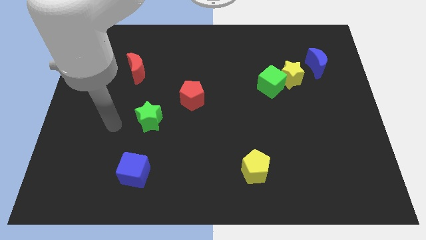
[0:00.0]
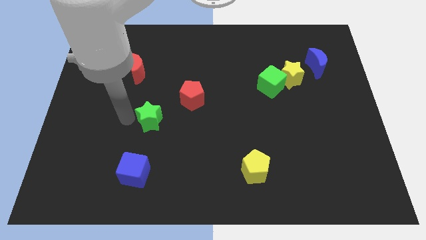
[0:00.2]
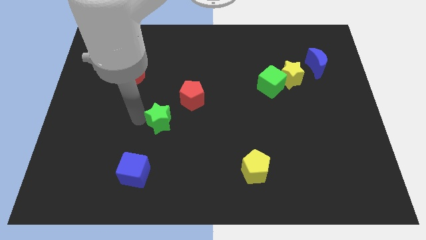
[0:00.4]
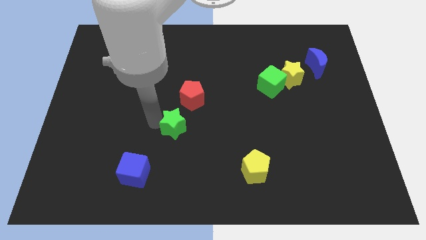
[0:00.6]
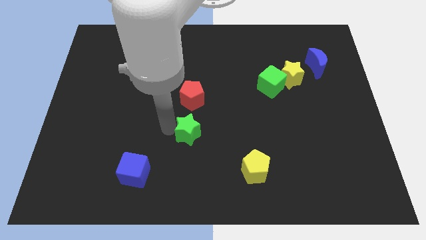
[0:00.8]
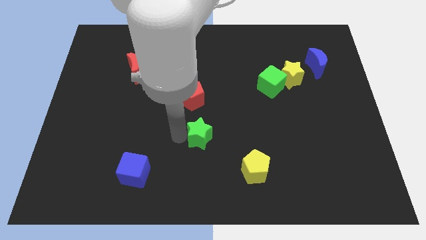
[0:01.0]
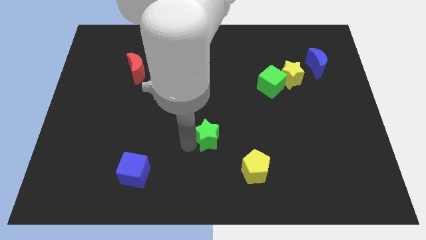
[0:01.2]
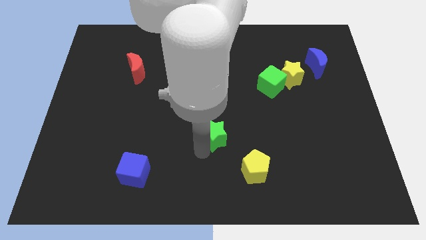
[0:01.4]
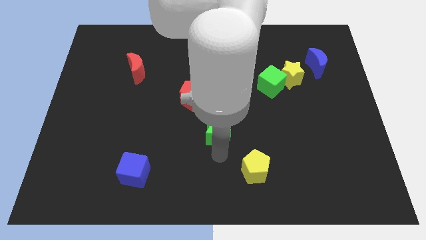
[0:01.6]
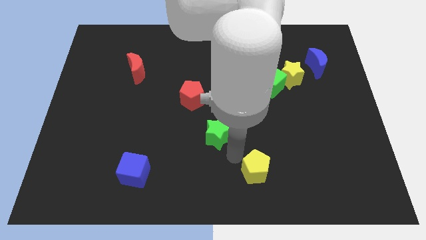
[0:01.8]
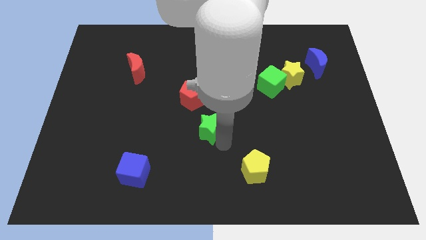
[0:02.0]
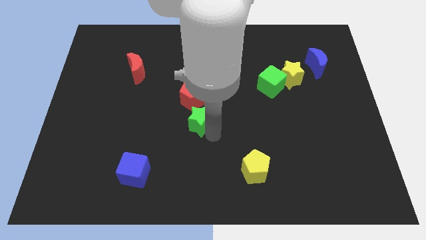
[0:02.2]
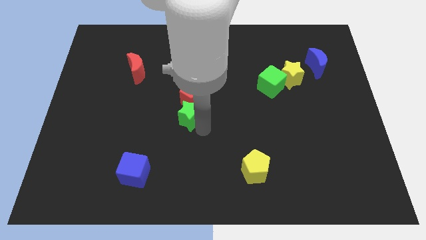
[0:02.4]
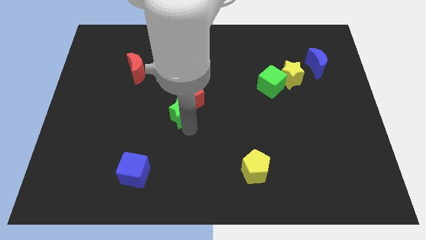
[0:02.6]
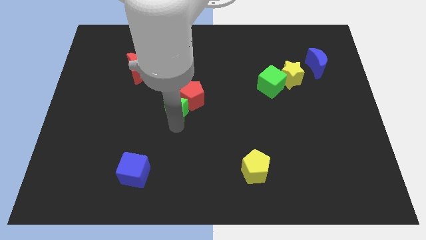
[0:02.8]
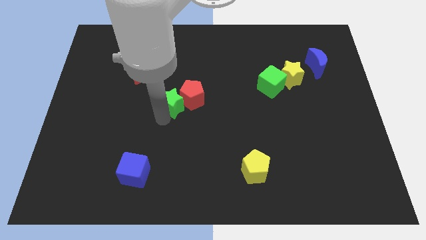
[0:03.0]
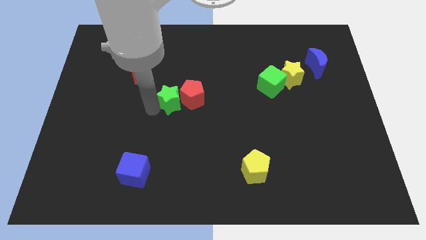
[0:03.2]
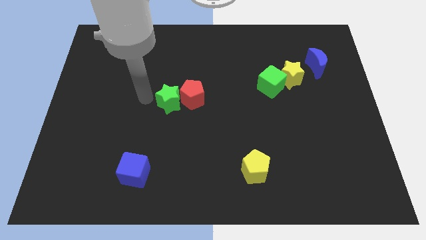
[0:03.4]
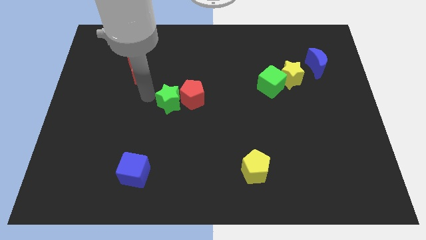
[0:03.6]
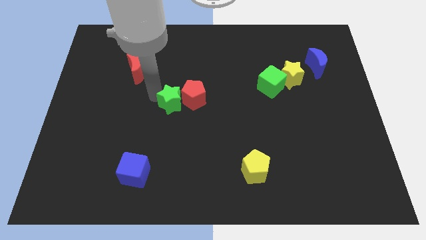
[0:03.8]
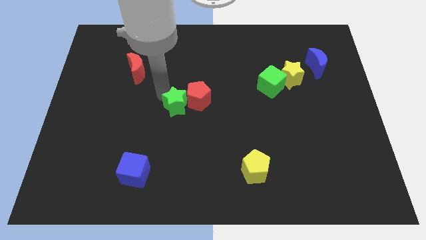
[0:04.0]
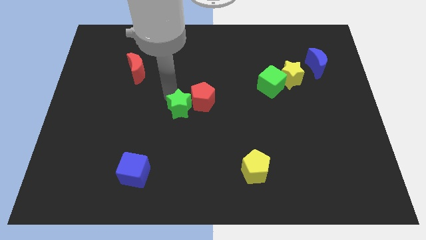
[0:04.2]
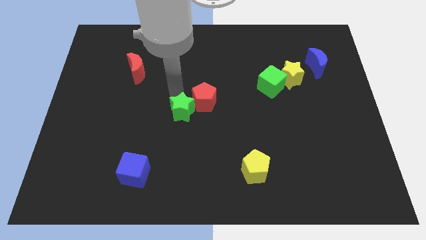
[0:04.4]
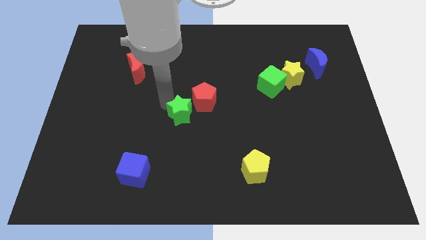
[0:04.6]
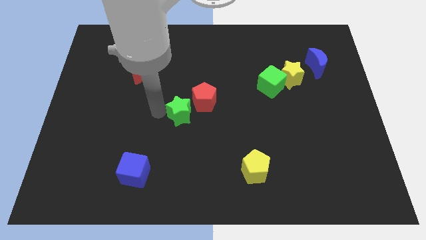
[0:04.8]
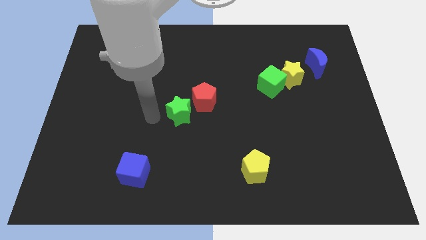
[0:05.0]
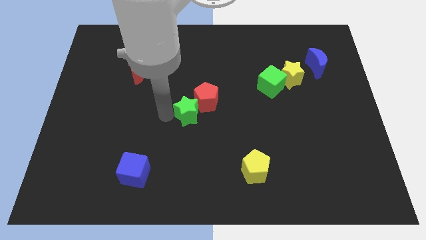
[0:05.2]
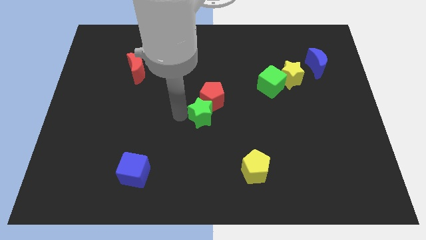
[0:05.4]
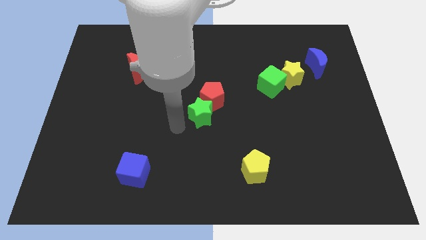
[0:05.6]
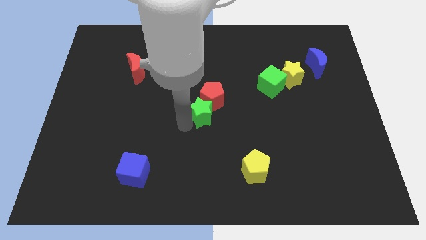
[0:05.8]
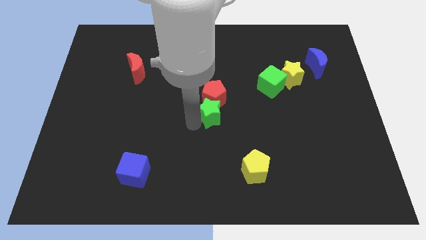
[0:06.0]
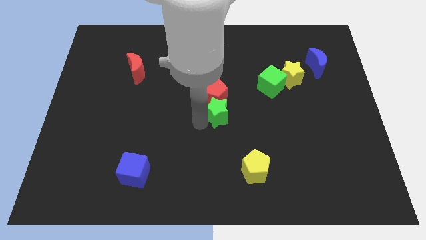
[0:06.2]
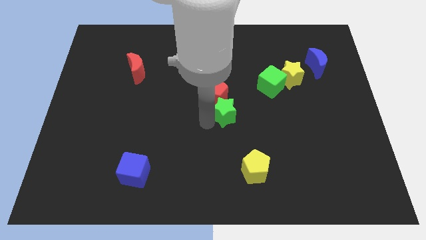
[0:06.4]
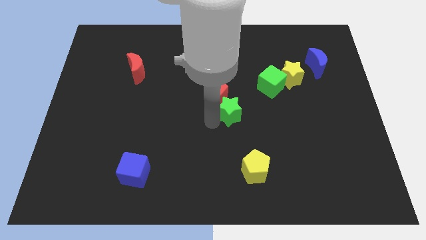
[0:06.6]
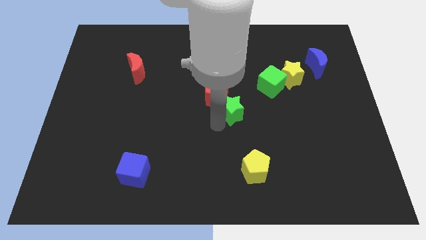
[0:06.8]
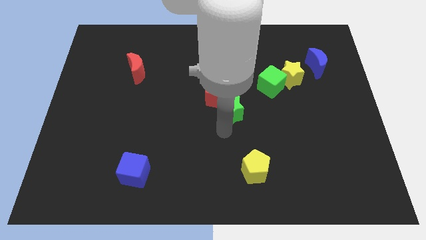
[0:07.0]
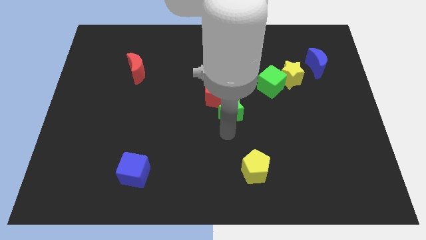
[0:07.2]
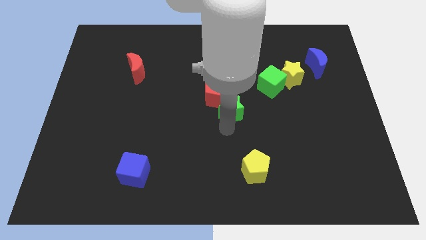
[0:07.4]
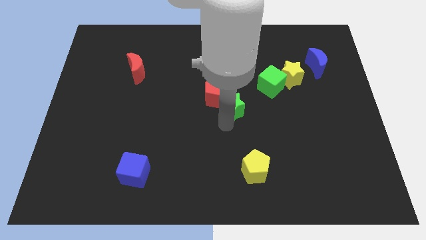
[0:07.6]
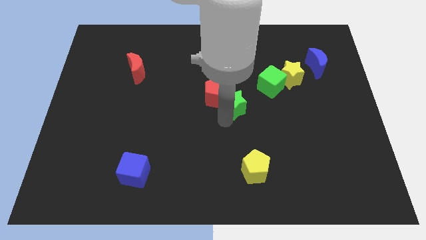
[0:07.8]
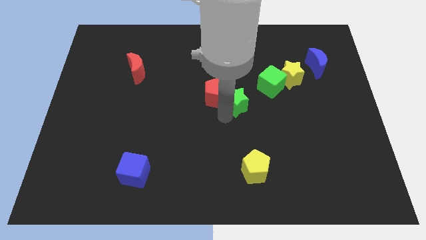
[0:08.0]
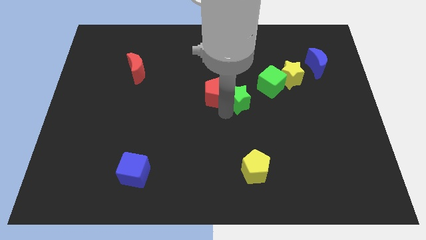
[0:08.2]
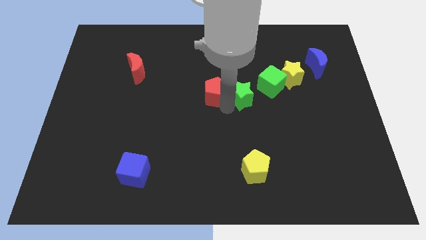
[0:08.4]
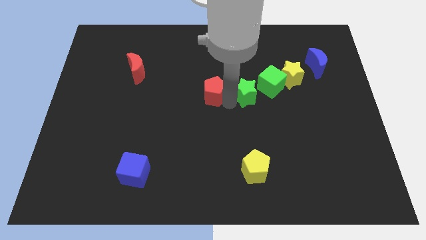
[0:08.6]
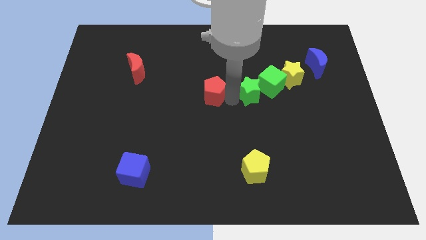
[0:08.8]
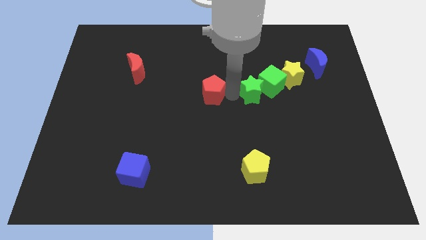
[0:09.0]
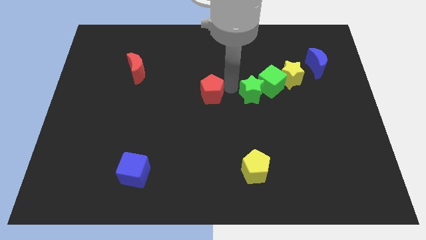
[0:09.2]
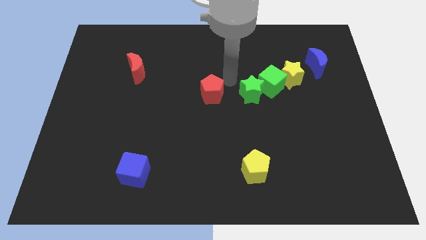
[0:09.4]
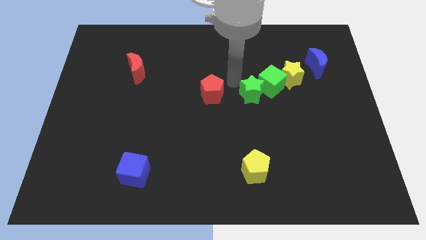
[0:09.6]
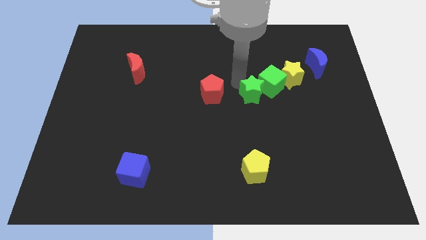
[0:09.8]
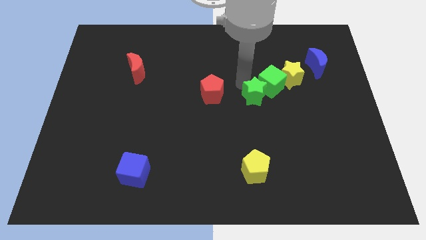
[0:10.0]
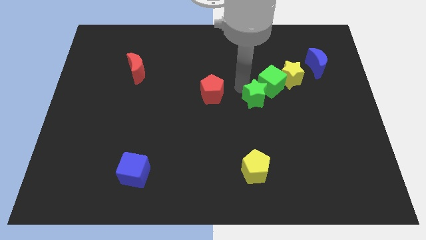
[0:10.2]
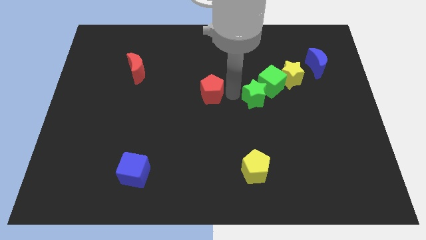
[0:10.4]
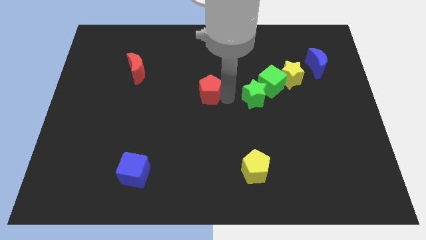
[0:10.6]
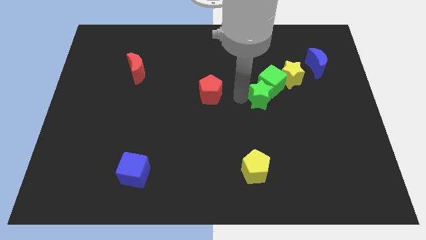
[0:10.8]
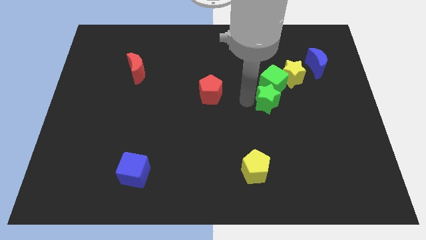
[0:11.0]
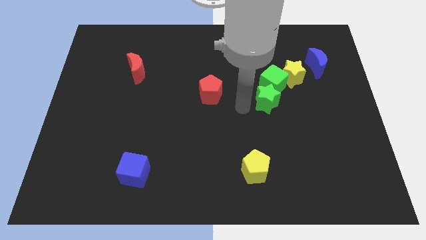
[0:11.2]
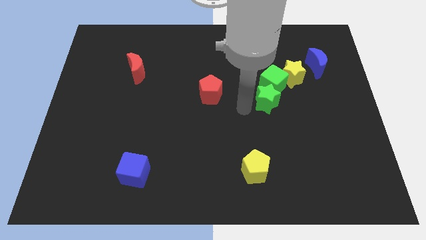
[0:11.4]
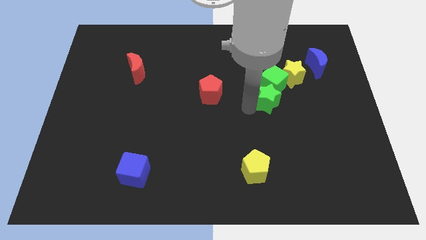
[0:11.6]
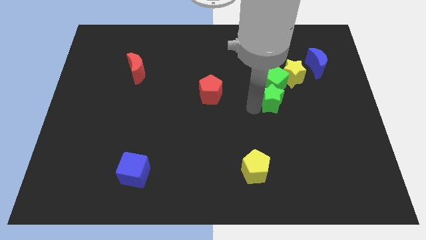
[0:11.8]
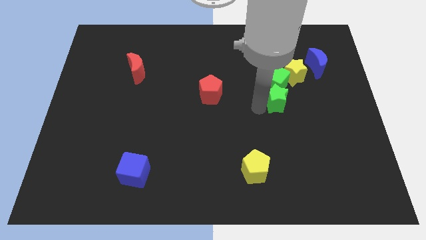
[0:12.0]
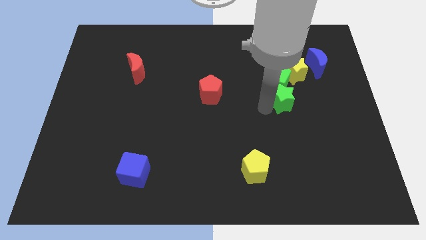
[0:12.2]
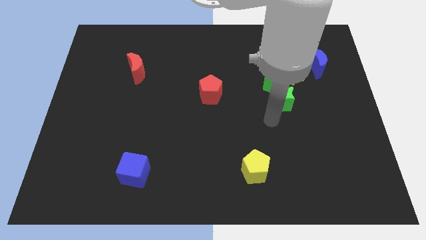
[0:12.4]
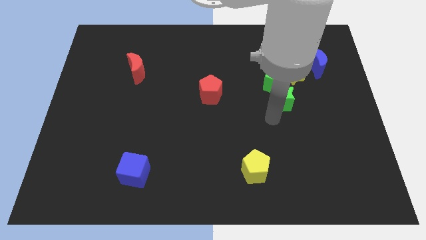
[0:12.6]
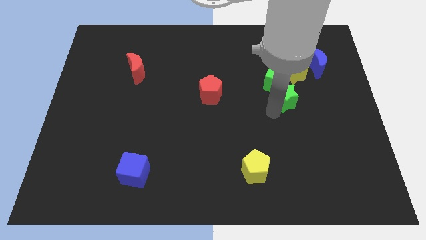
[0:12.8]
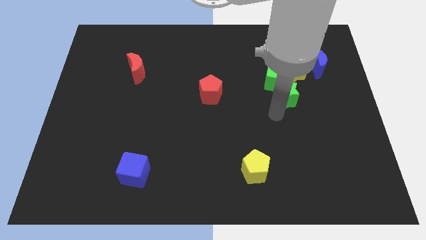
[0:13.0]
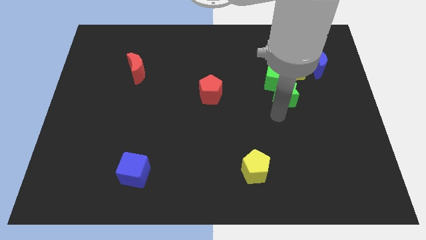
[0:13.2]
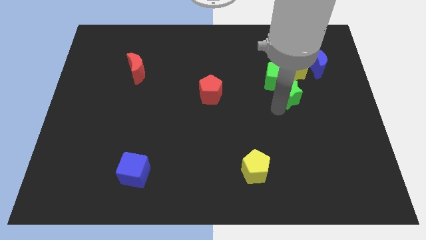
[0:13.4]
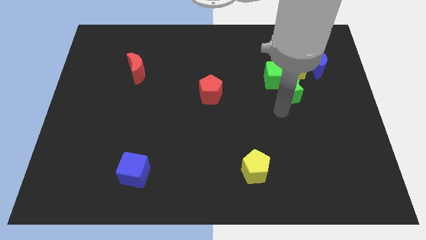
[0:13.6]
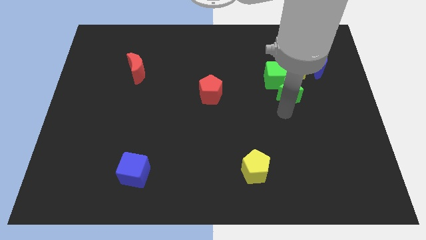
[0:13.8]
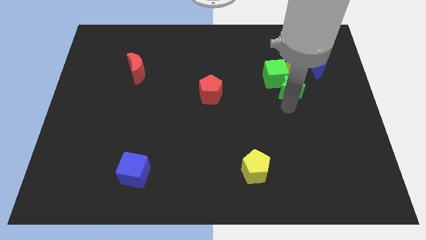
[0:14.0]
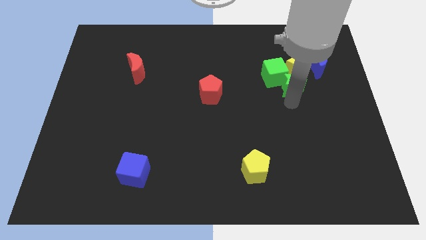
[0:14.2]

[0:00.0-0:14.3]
push the green star close to the yellow star
